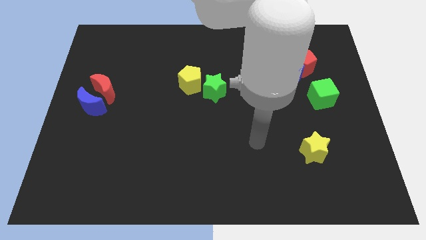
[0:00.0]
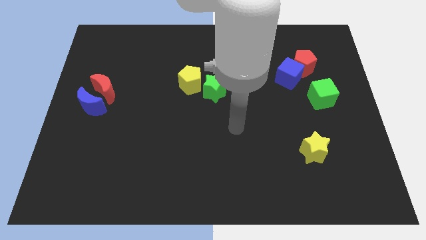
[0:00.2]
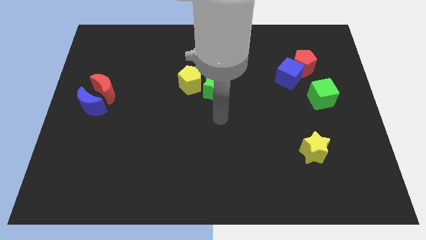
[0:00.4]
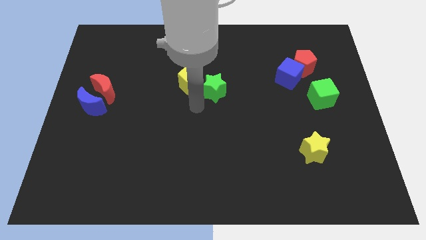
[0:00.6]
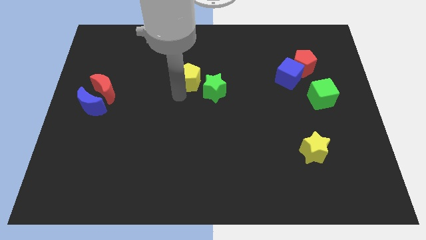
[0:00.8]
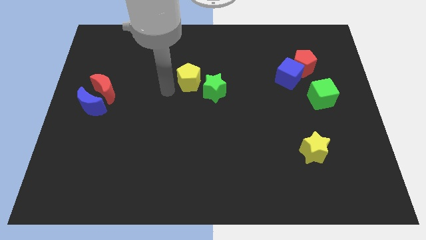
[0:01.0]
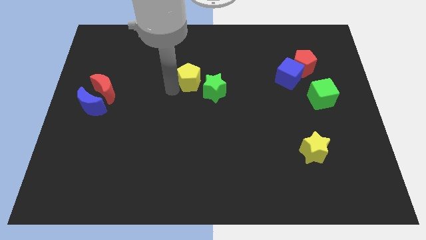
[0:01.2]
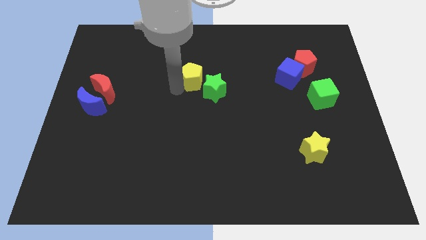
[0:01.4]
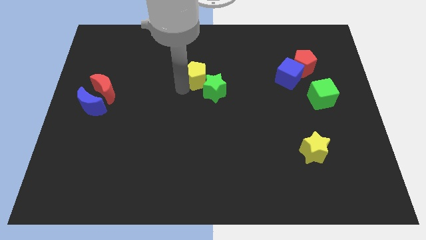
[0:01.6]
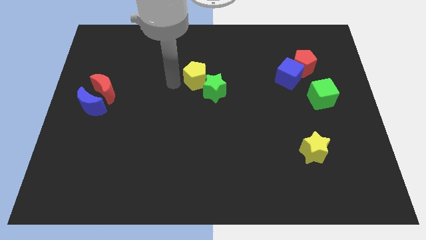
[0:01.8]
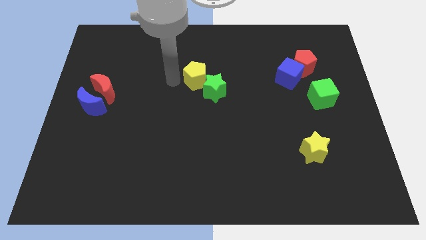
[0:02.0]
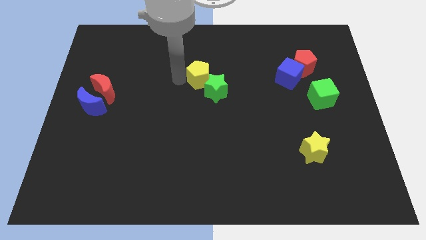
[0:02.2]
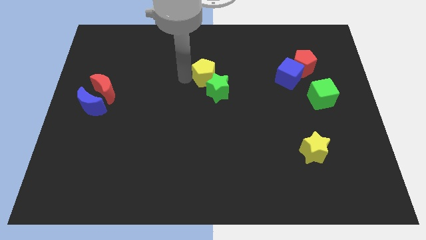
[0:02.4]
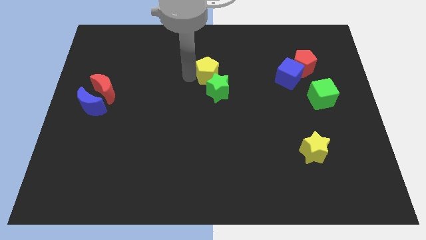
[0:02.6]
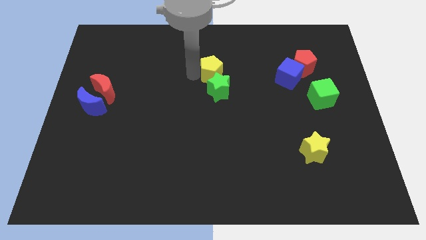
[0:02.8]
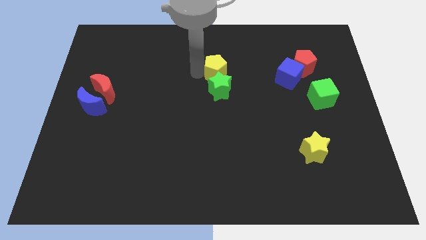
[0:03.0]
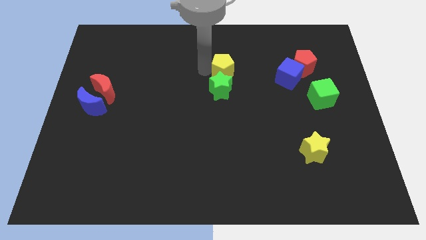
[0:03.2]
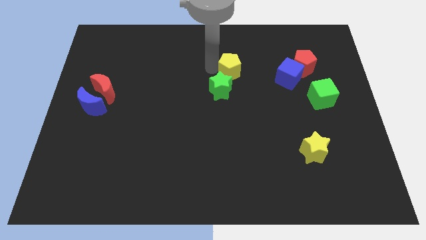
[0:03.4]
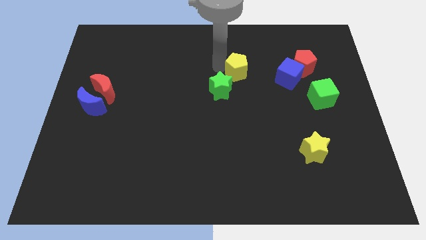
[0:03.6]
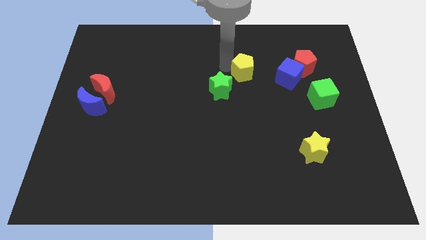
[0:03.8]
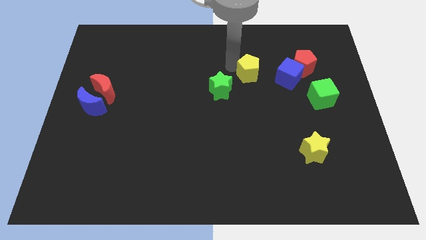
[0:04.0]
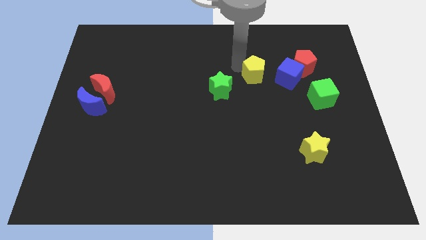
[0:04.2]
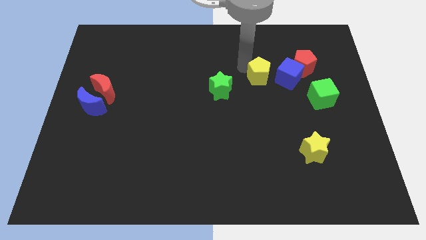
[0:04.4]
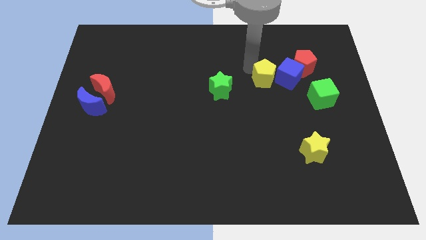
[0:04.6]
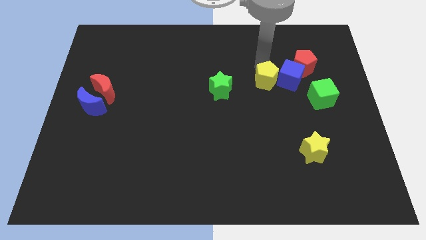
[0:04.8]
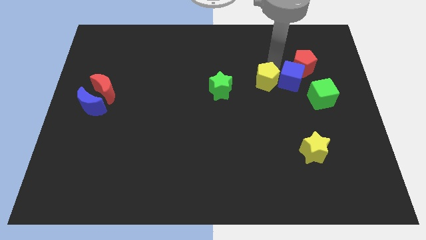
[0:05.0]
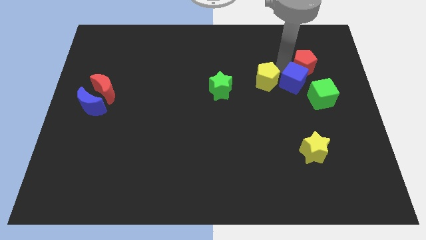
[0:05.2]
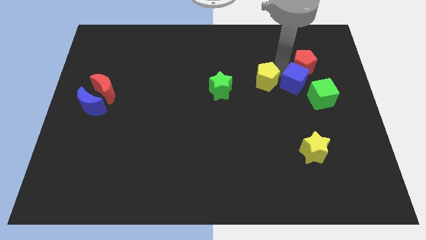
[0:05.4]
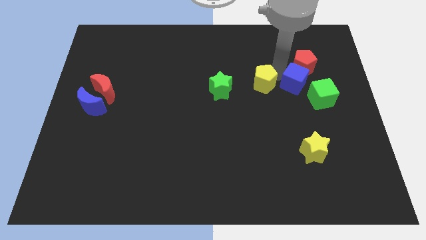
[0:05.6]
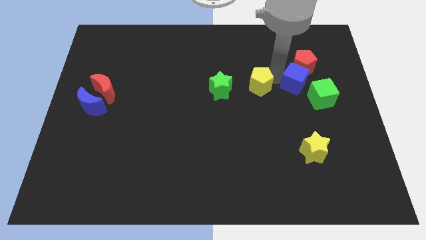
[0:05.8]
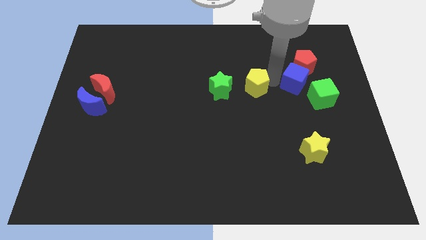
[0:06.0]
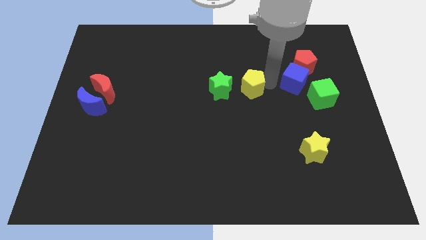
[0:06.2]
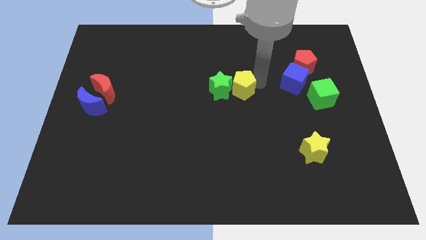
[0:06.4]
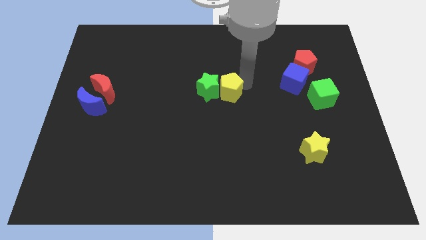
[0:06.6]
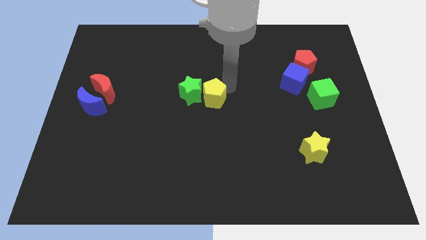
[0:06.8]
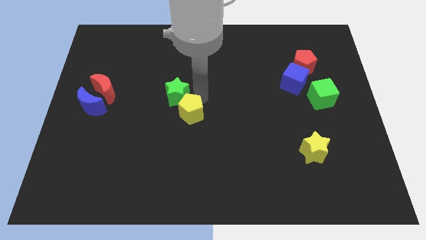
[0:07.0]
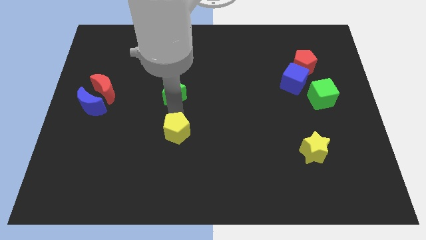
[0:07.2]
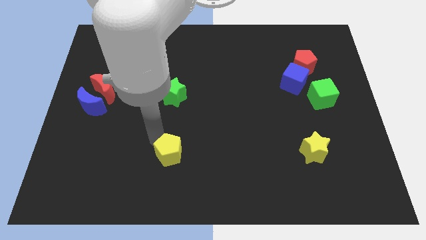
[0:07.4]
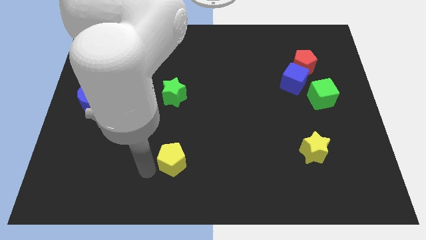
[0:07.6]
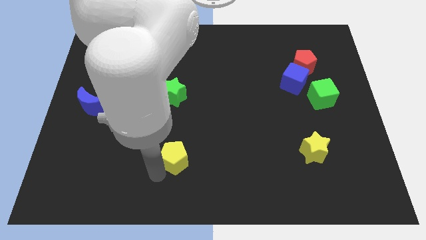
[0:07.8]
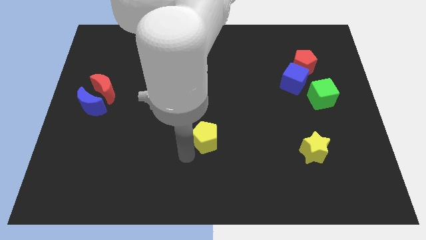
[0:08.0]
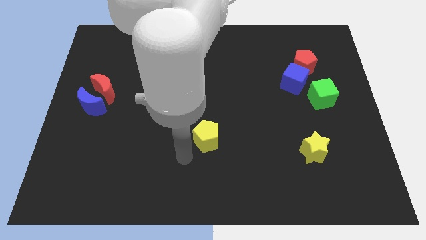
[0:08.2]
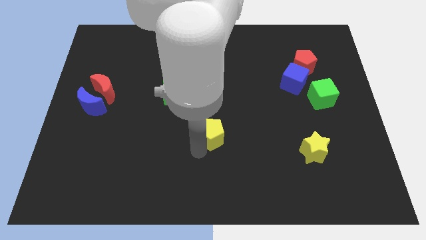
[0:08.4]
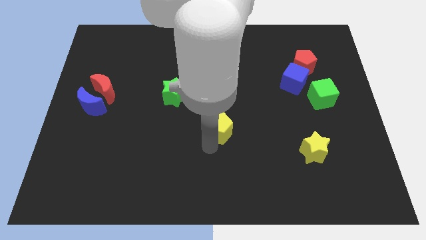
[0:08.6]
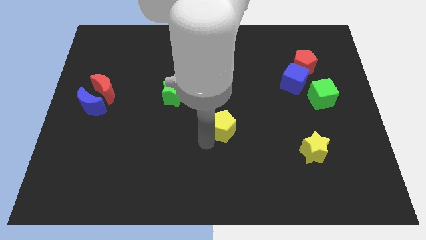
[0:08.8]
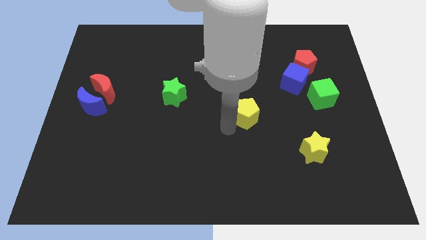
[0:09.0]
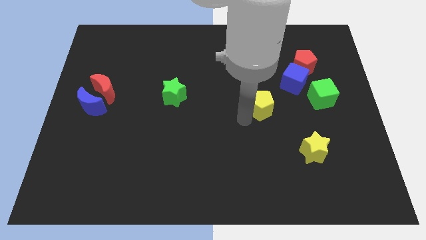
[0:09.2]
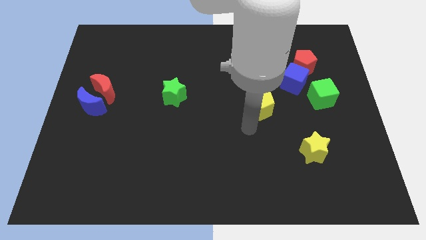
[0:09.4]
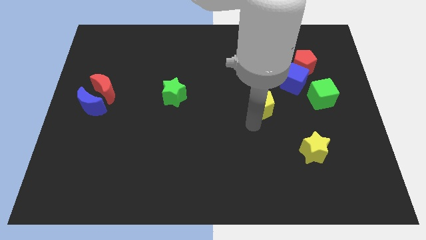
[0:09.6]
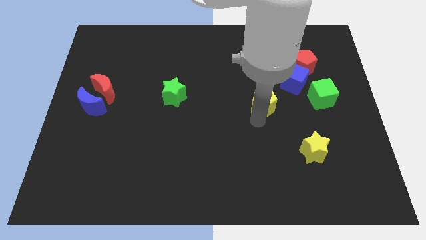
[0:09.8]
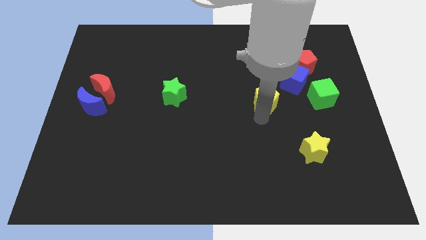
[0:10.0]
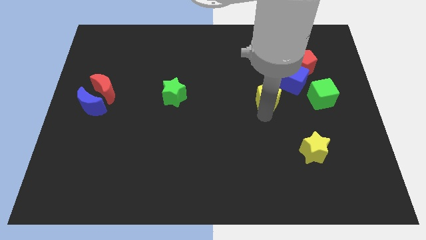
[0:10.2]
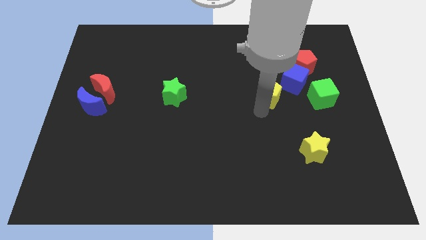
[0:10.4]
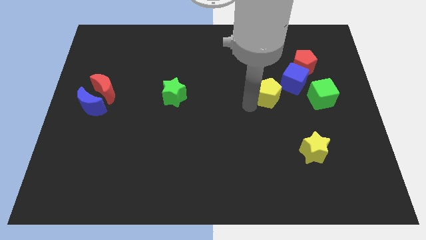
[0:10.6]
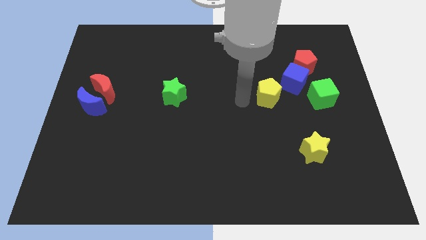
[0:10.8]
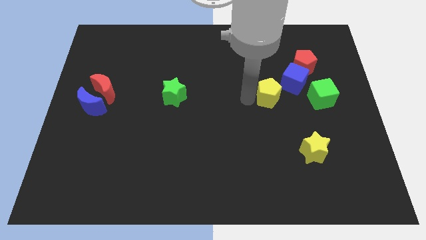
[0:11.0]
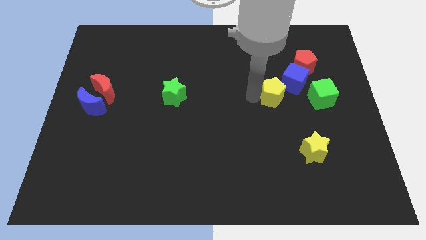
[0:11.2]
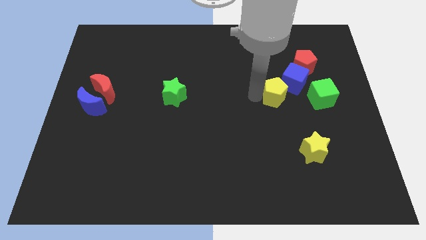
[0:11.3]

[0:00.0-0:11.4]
move the yellow pentagon right

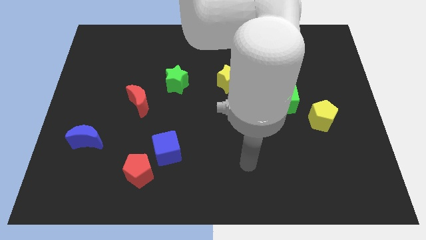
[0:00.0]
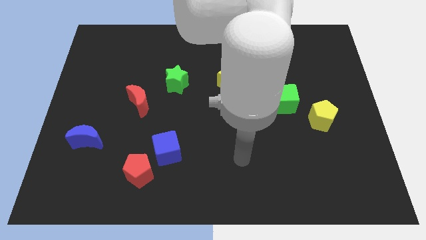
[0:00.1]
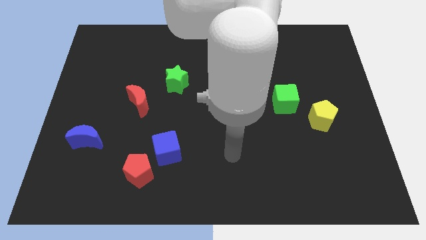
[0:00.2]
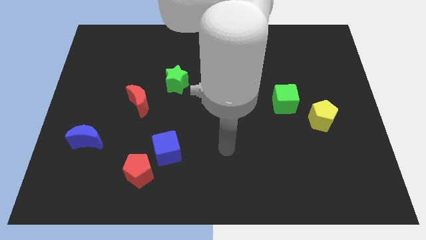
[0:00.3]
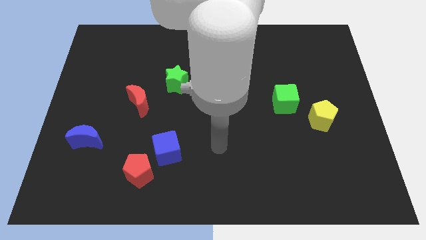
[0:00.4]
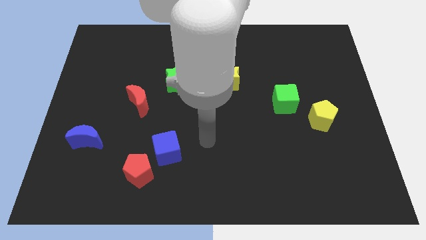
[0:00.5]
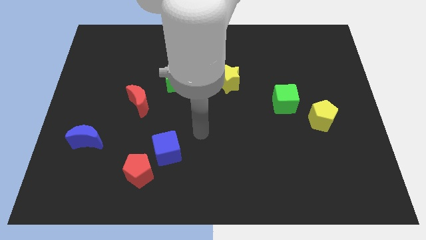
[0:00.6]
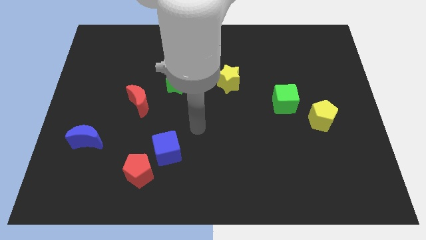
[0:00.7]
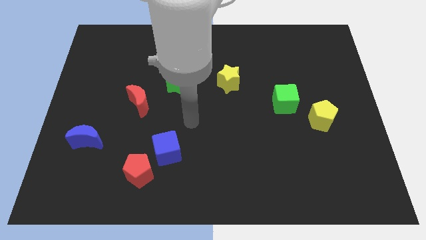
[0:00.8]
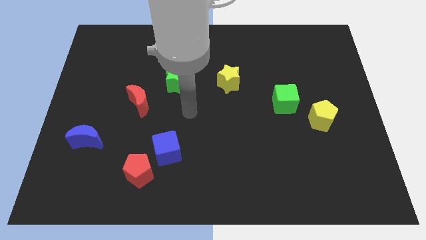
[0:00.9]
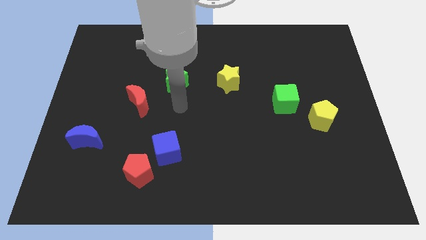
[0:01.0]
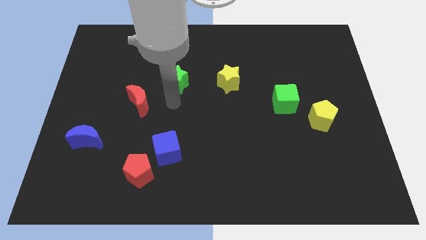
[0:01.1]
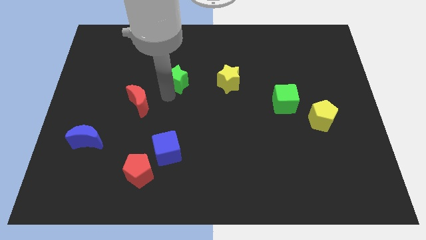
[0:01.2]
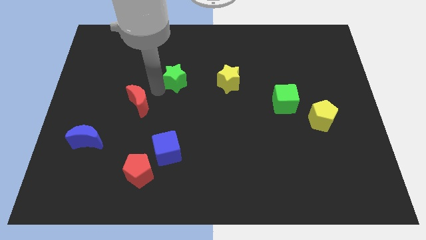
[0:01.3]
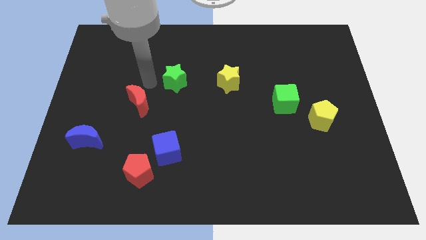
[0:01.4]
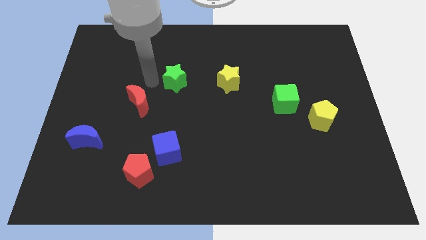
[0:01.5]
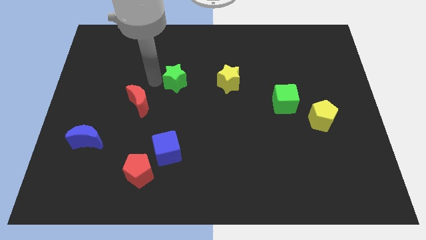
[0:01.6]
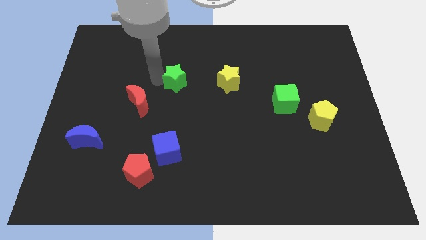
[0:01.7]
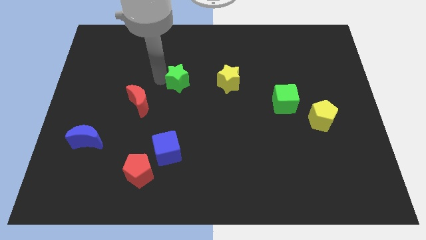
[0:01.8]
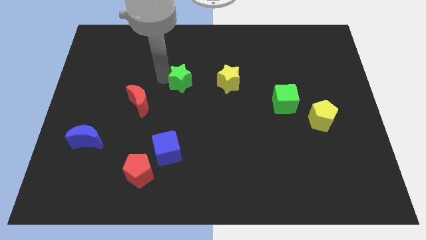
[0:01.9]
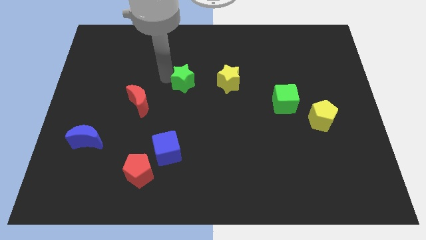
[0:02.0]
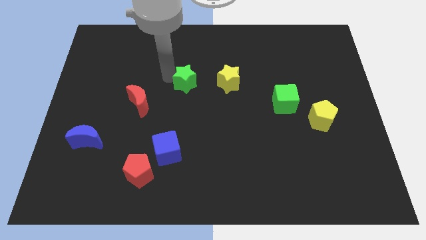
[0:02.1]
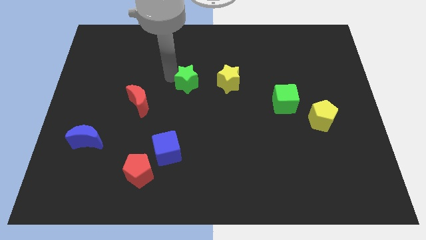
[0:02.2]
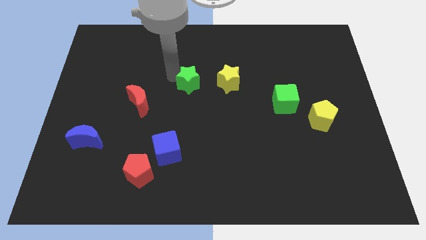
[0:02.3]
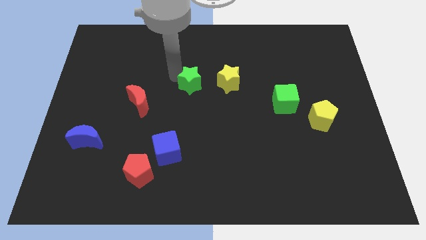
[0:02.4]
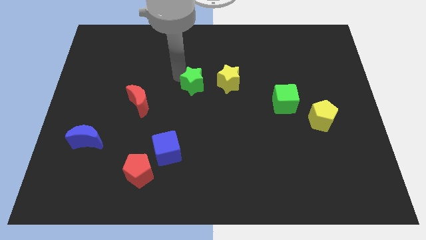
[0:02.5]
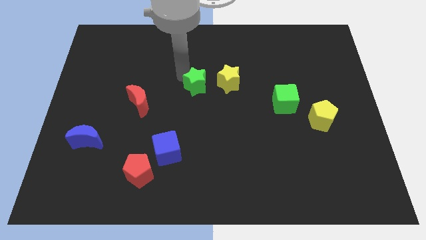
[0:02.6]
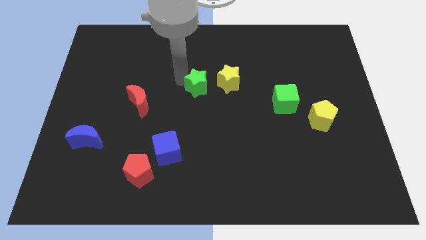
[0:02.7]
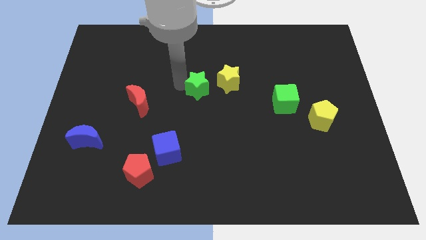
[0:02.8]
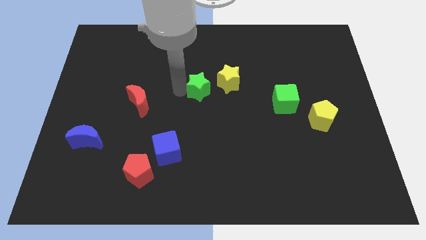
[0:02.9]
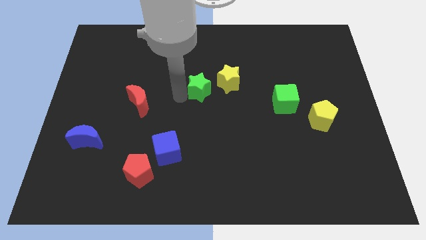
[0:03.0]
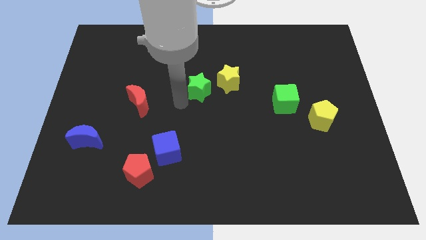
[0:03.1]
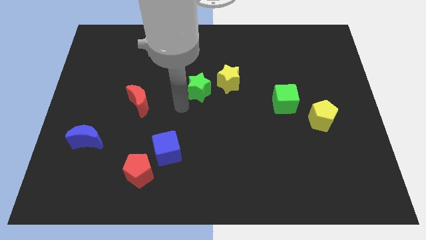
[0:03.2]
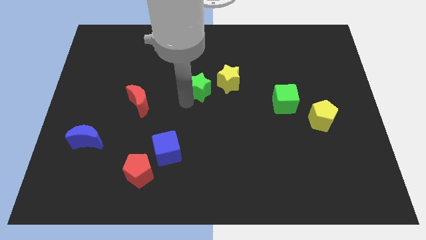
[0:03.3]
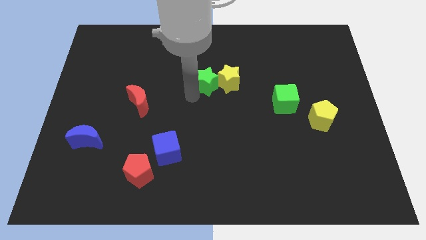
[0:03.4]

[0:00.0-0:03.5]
slightly push the green star right
